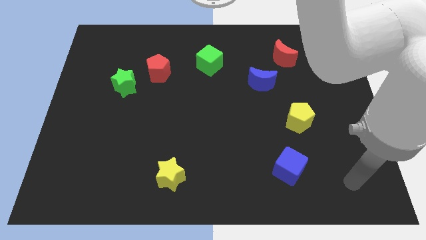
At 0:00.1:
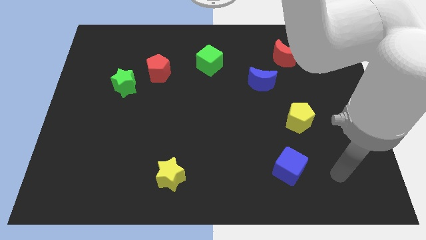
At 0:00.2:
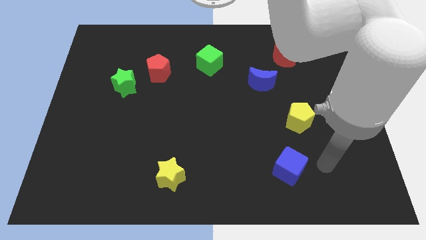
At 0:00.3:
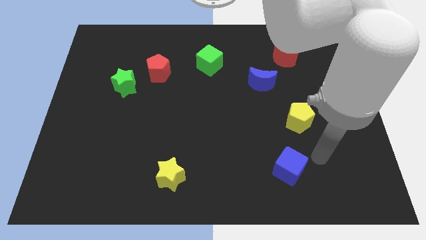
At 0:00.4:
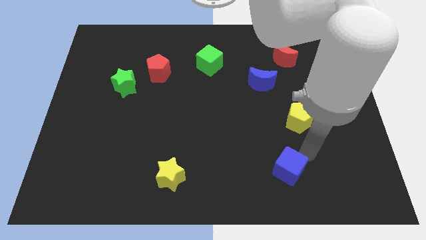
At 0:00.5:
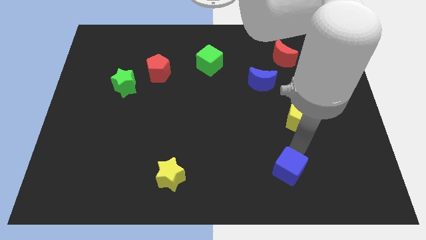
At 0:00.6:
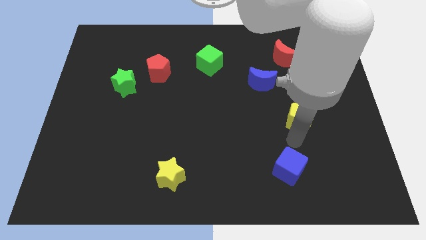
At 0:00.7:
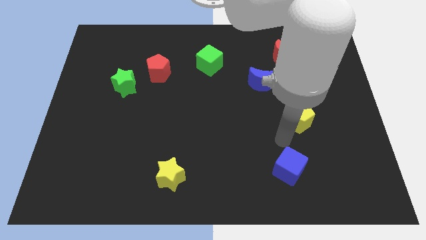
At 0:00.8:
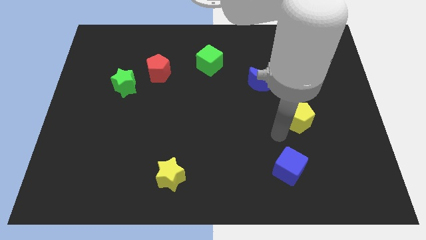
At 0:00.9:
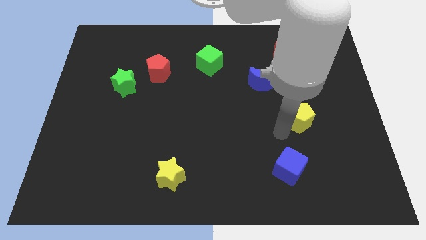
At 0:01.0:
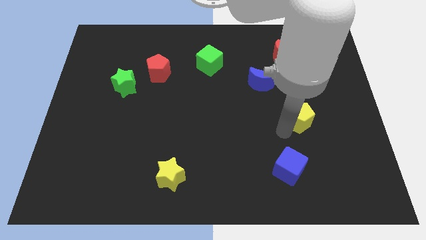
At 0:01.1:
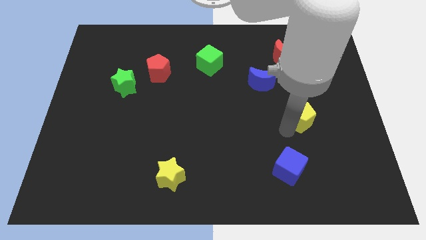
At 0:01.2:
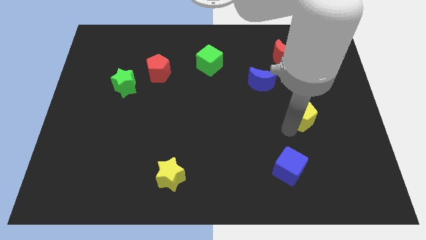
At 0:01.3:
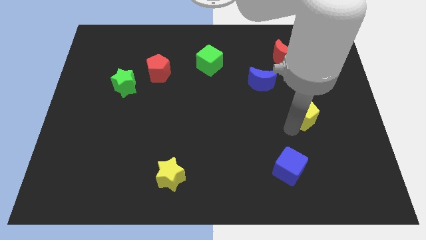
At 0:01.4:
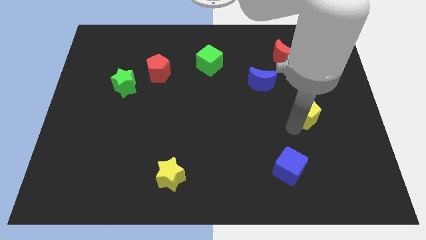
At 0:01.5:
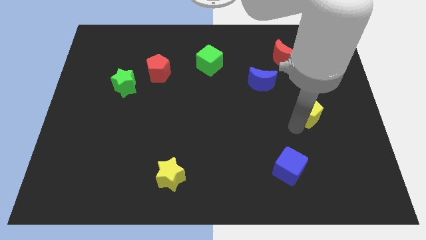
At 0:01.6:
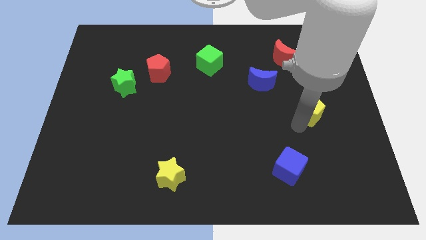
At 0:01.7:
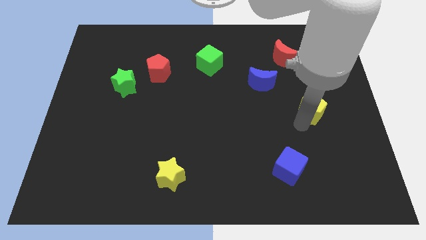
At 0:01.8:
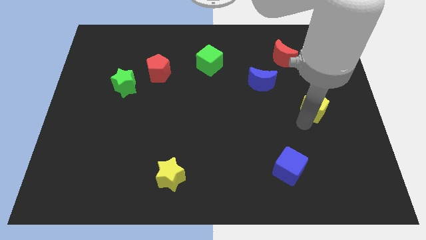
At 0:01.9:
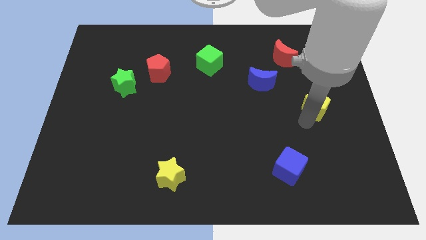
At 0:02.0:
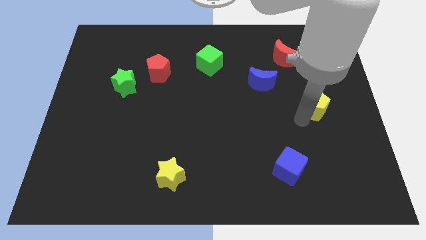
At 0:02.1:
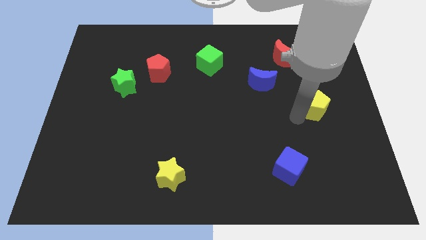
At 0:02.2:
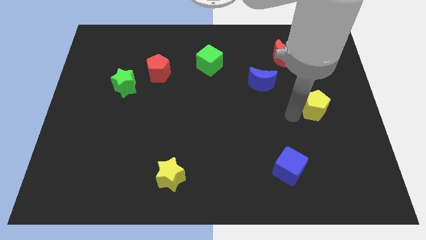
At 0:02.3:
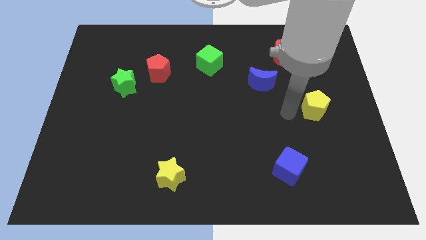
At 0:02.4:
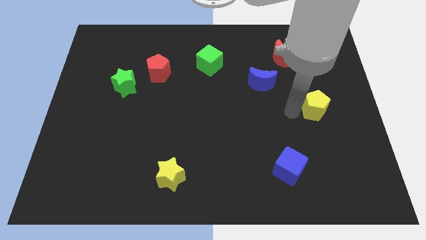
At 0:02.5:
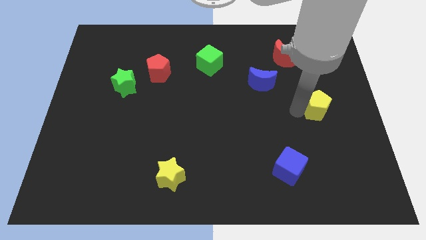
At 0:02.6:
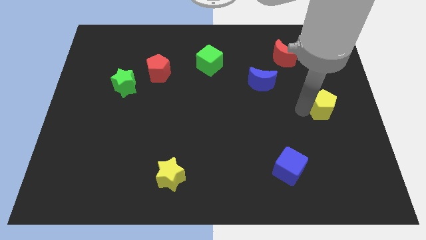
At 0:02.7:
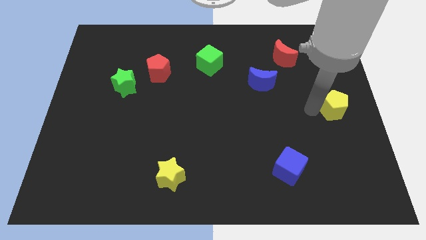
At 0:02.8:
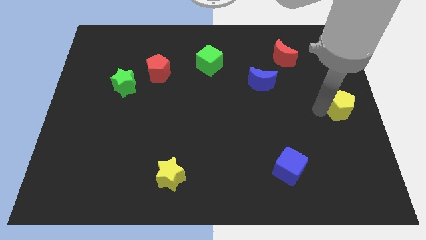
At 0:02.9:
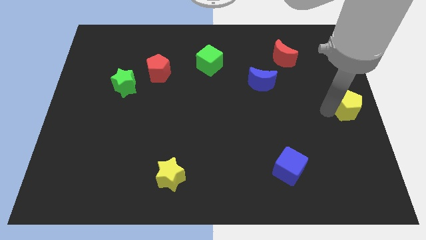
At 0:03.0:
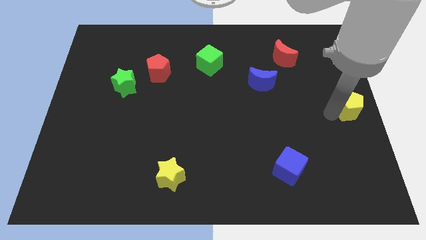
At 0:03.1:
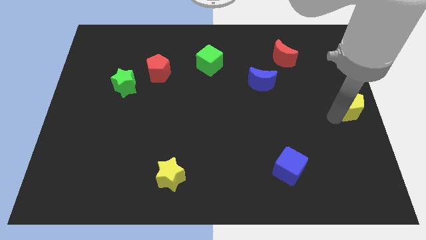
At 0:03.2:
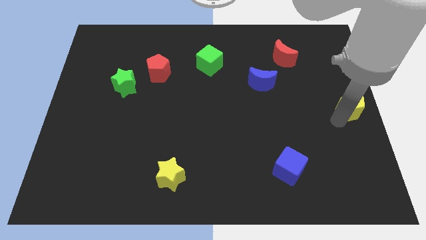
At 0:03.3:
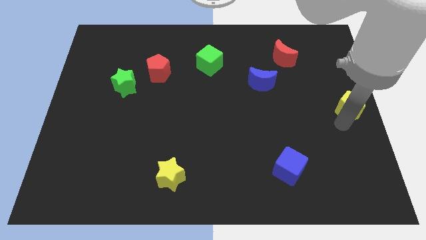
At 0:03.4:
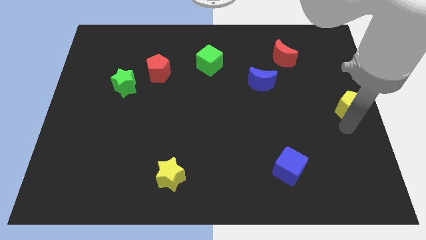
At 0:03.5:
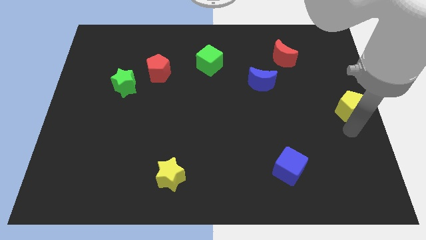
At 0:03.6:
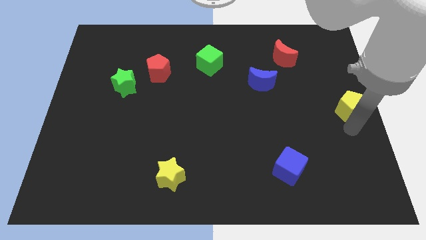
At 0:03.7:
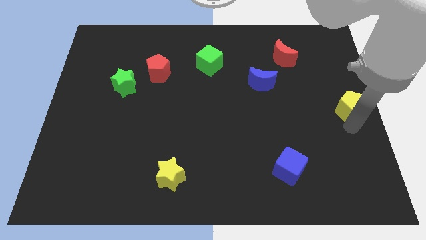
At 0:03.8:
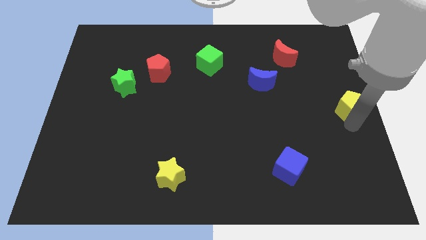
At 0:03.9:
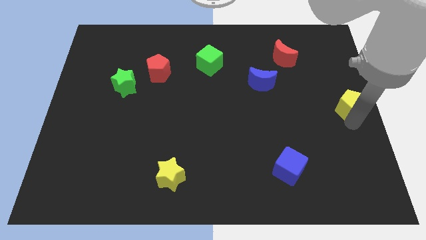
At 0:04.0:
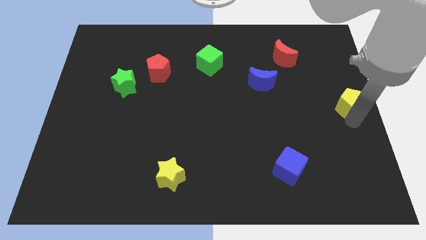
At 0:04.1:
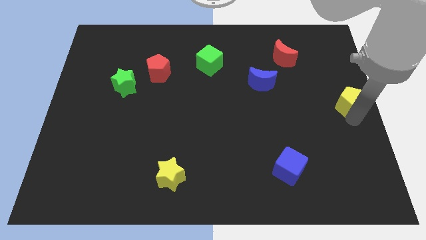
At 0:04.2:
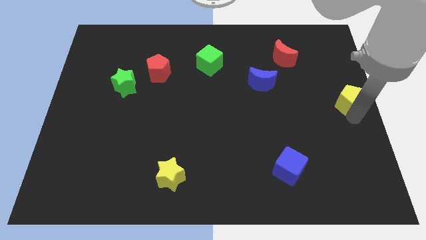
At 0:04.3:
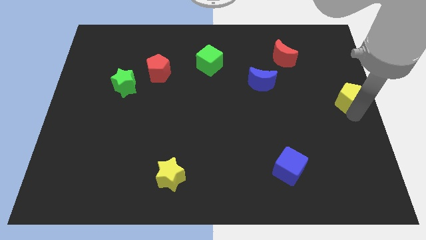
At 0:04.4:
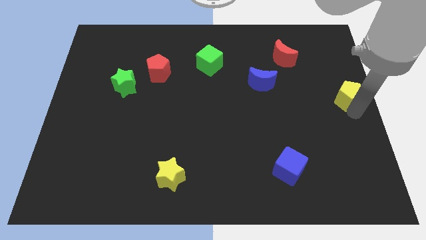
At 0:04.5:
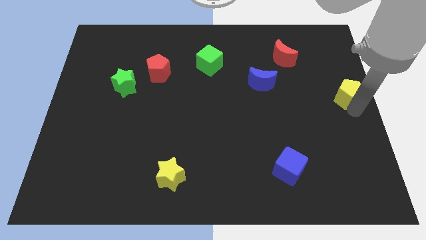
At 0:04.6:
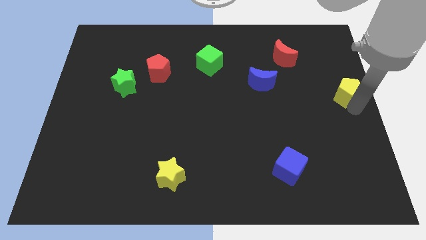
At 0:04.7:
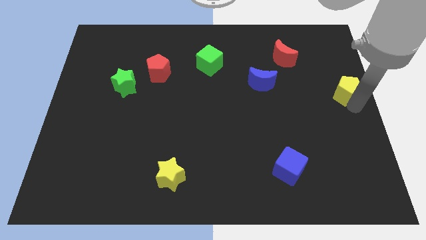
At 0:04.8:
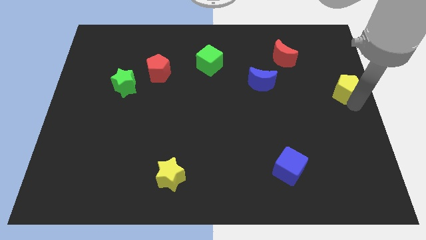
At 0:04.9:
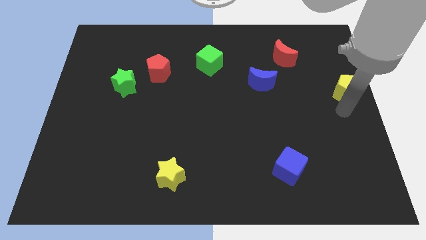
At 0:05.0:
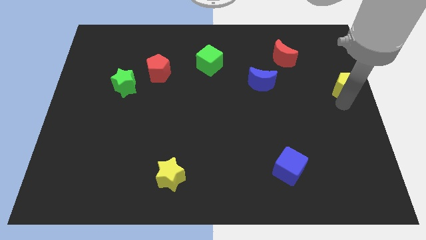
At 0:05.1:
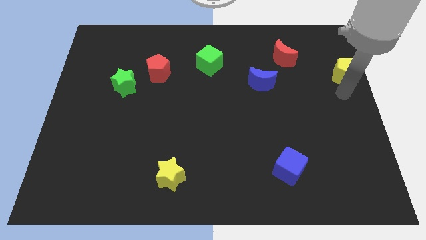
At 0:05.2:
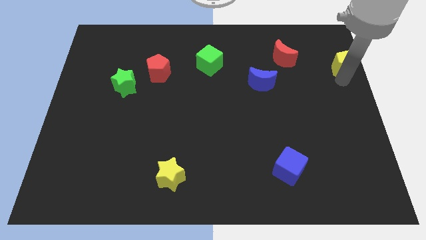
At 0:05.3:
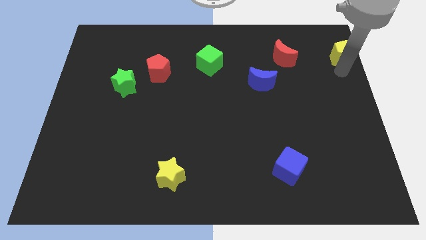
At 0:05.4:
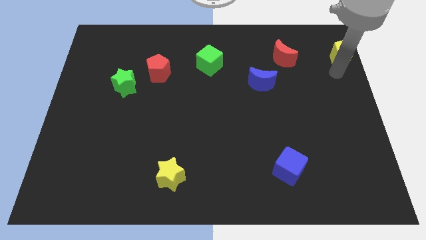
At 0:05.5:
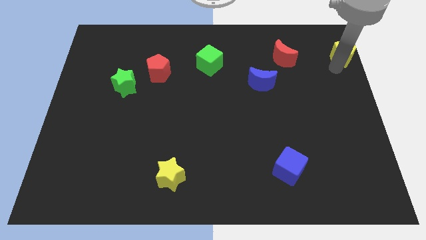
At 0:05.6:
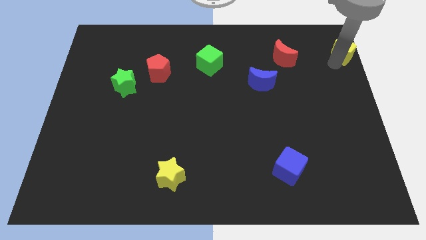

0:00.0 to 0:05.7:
push the yellow pentagon to the upper right corner
